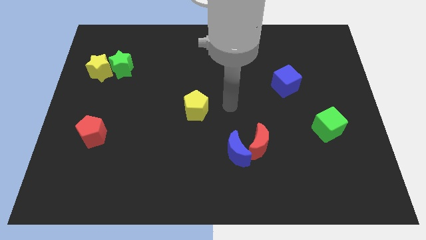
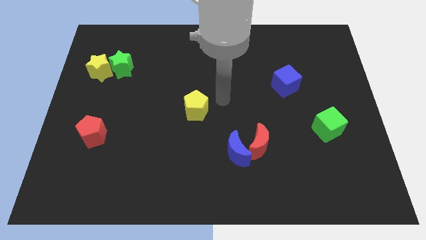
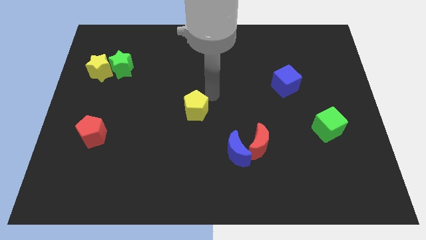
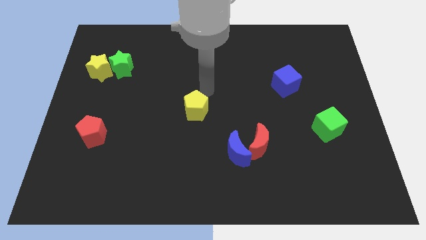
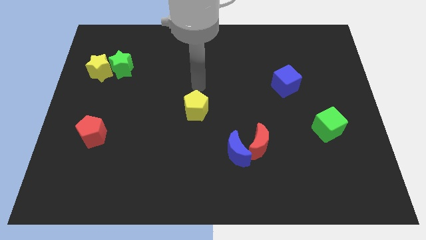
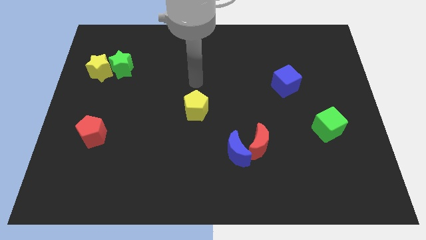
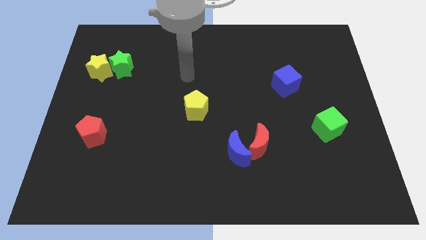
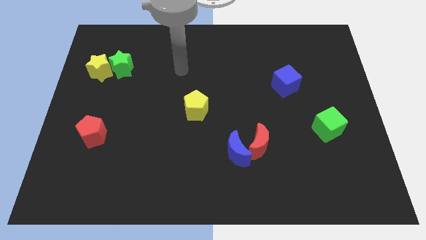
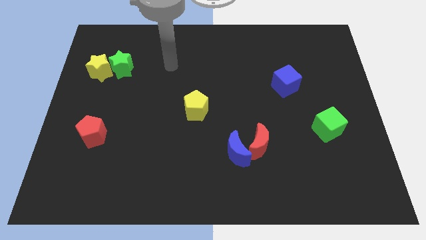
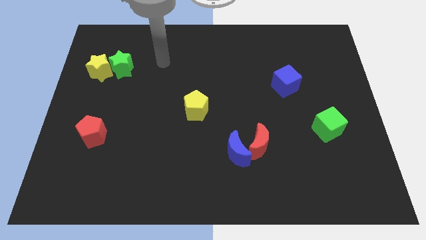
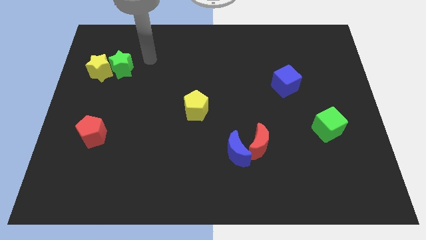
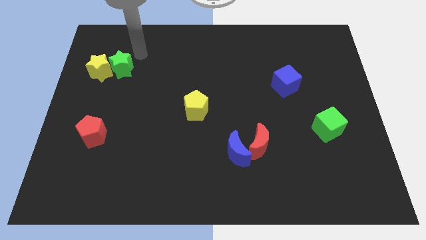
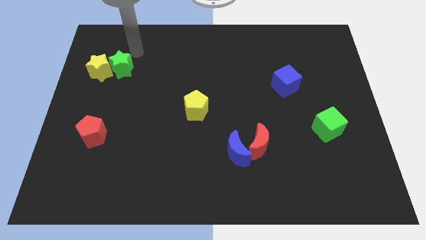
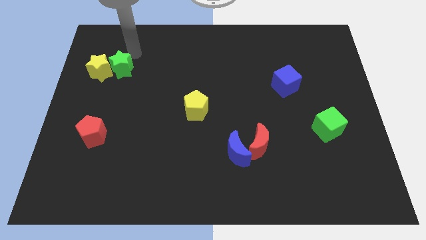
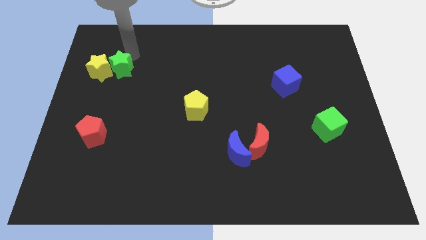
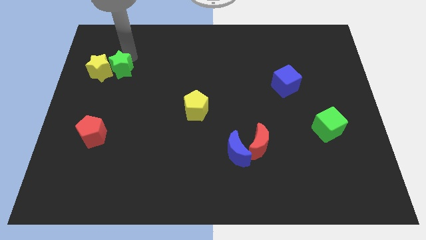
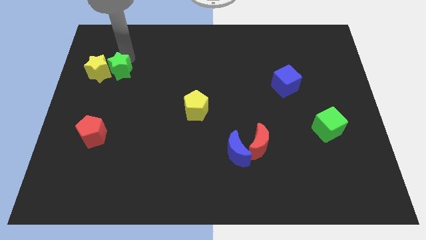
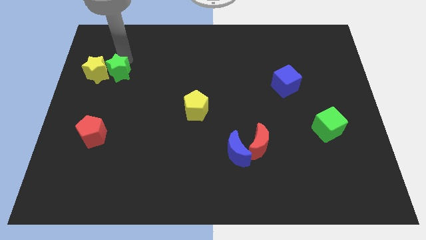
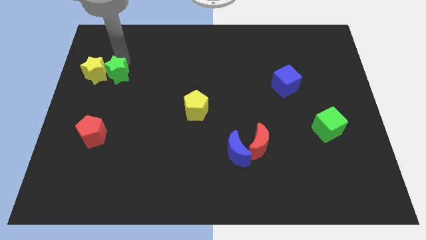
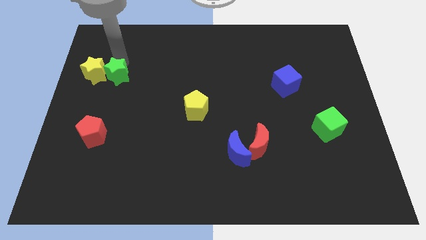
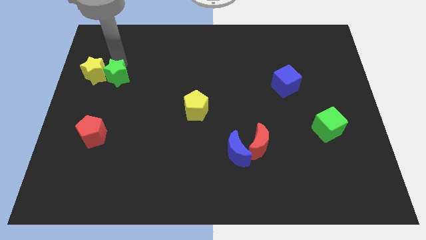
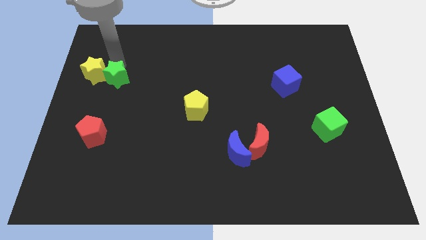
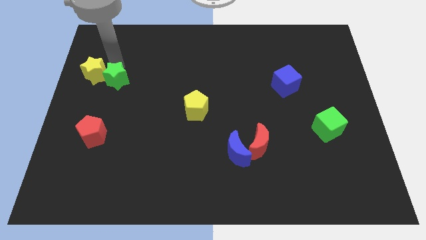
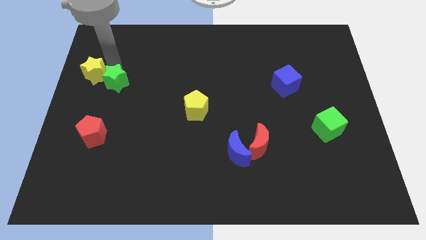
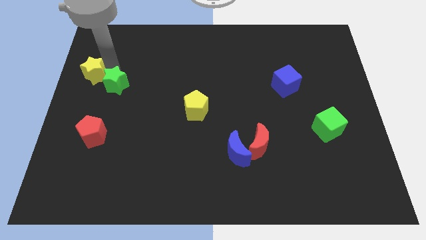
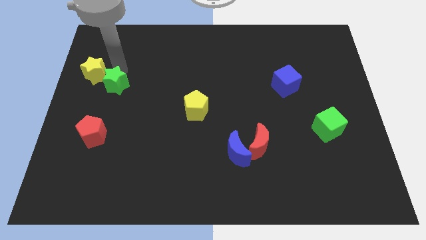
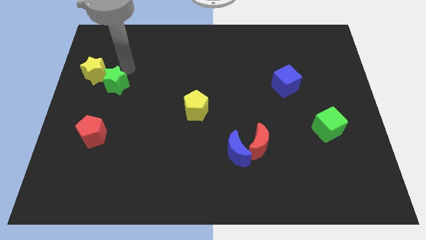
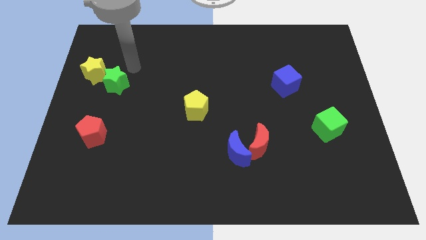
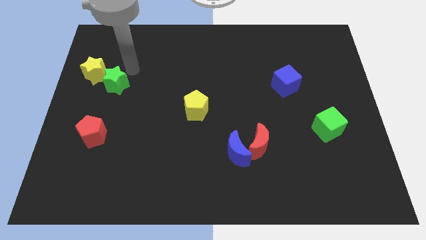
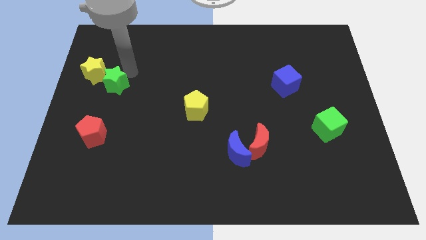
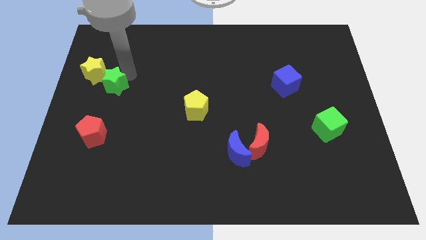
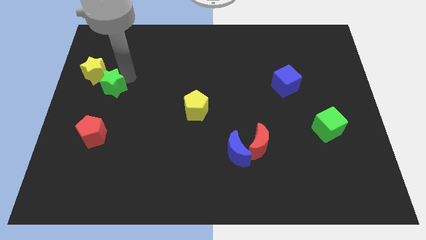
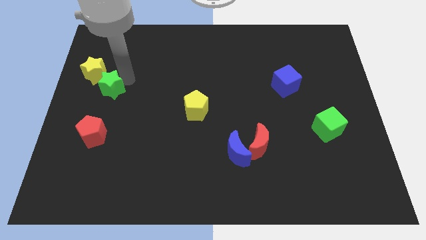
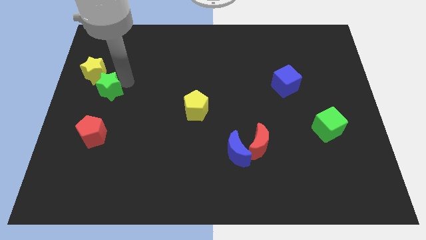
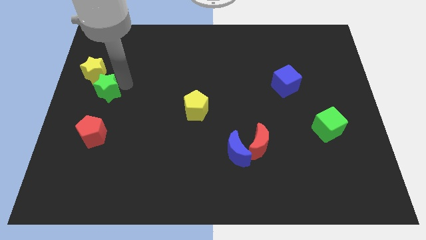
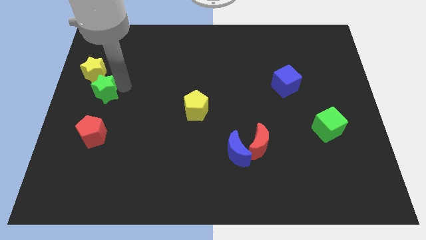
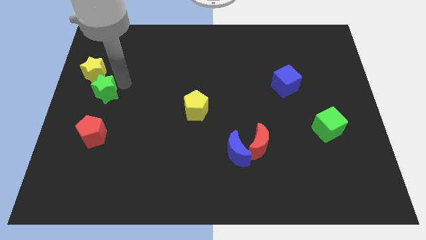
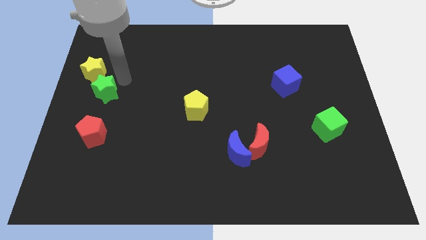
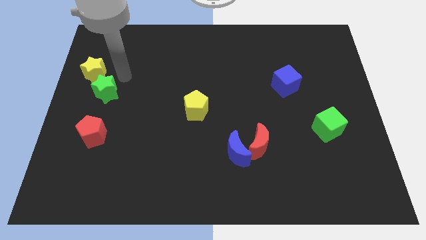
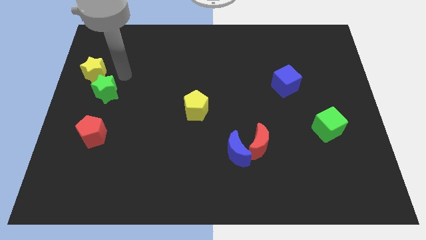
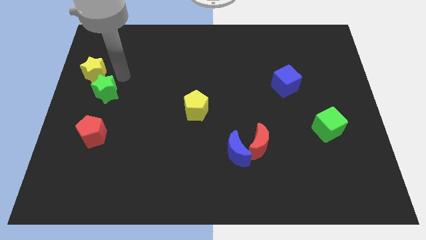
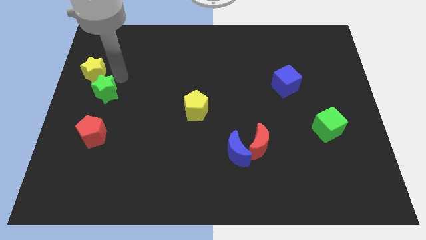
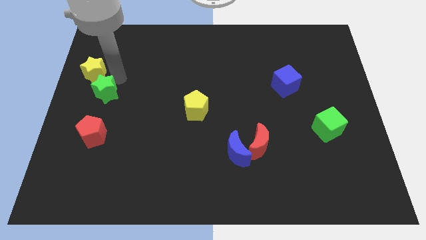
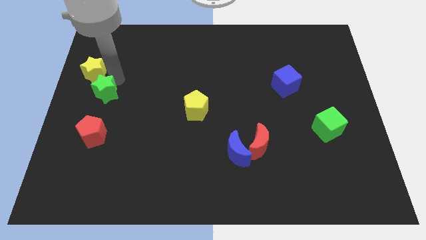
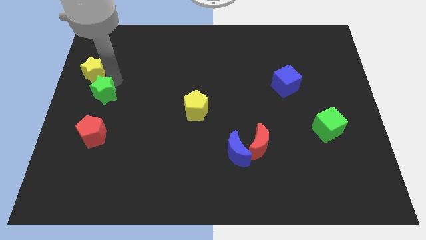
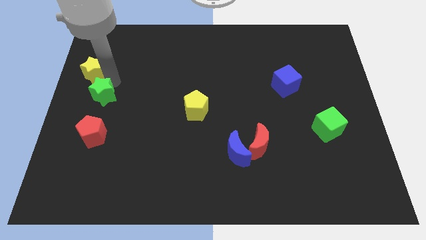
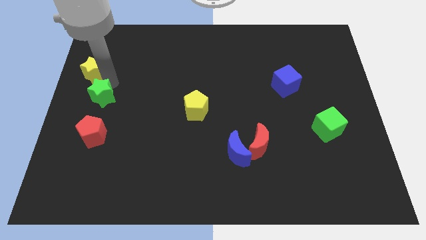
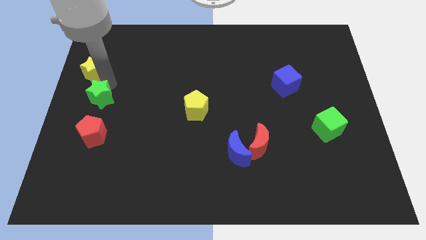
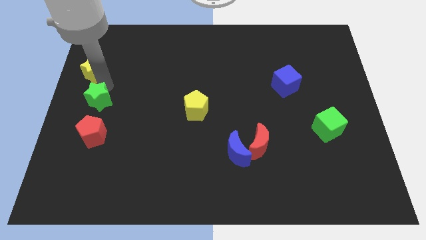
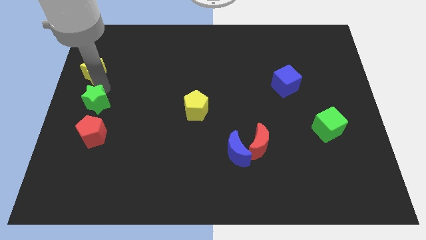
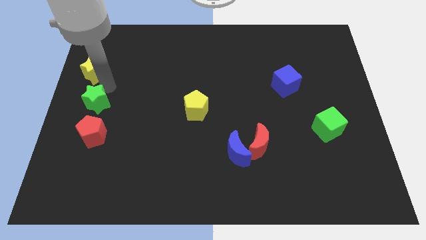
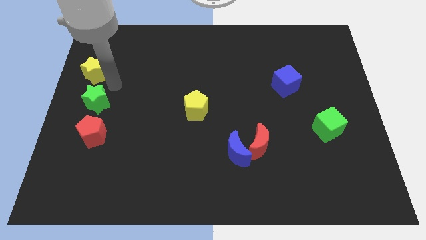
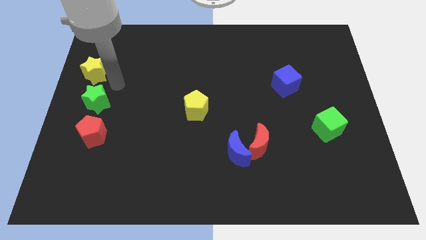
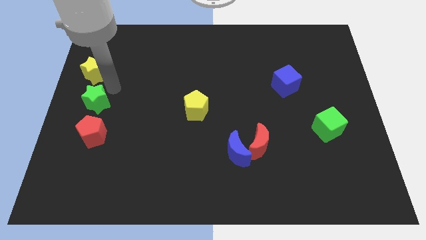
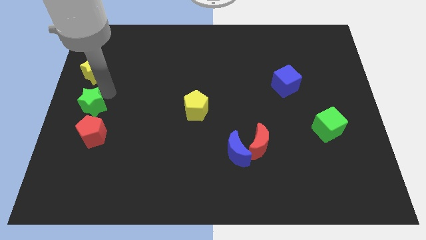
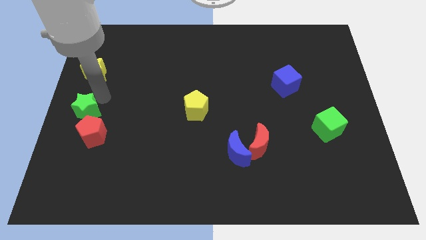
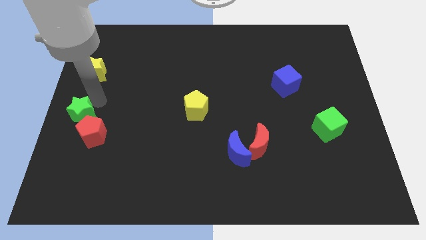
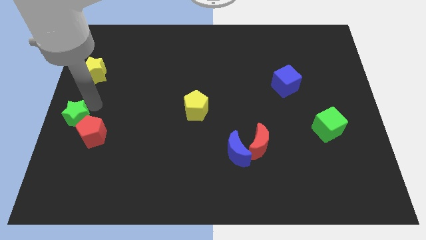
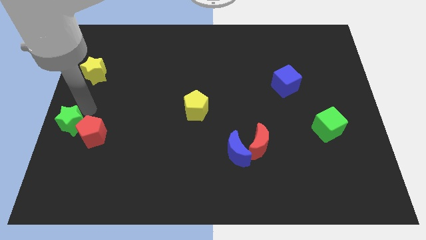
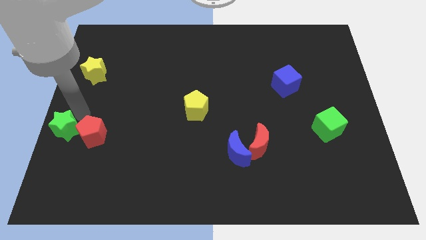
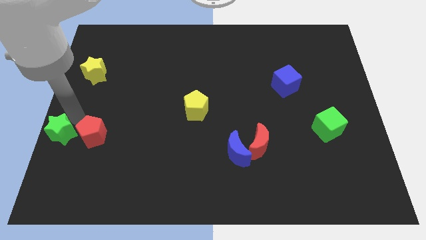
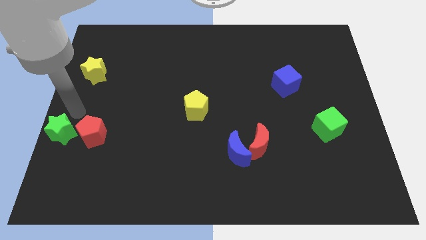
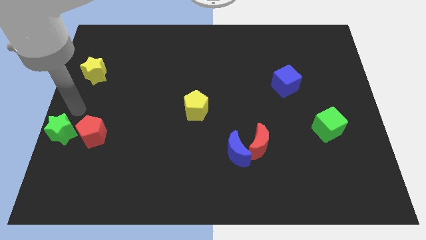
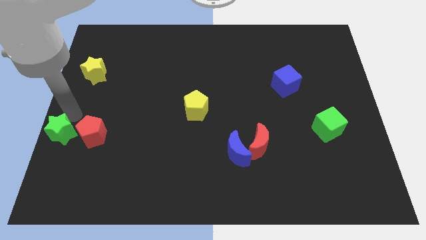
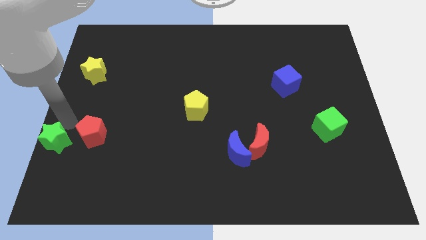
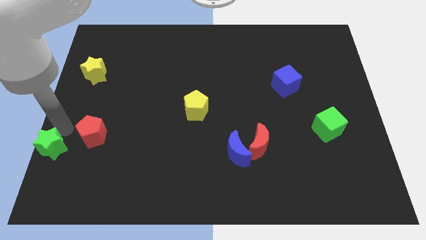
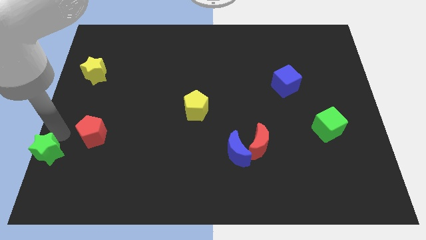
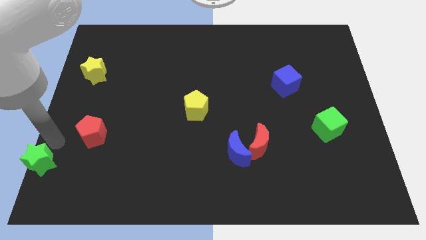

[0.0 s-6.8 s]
move the green star to the bottom left
